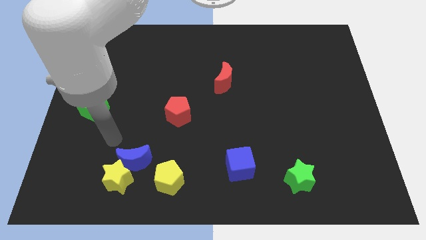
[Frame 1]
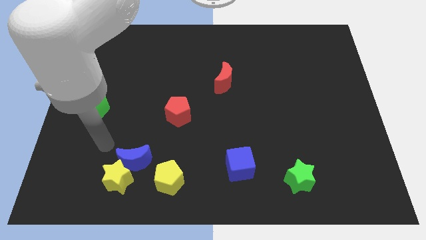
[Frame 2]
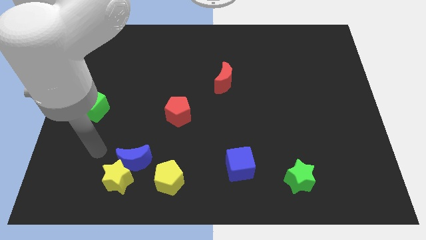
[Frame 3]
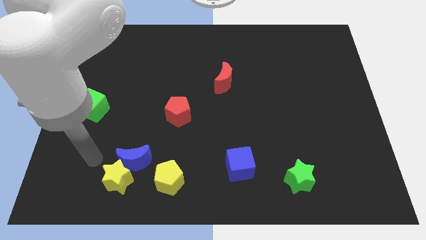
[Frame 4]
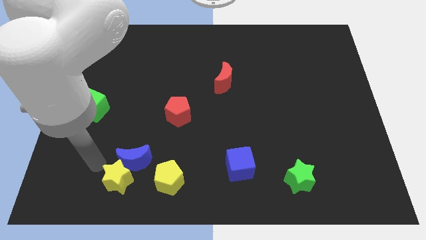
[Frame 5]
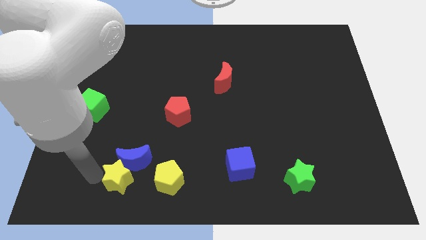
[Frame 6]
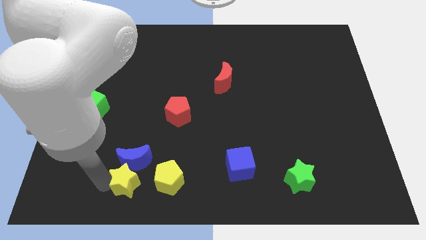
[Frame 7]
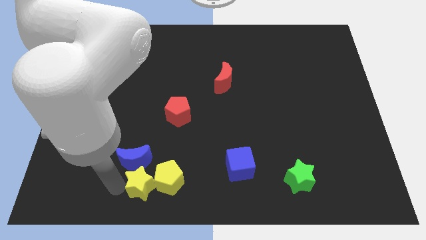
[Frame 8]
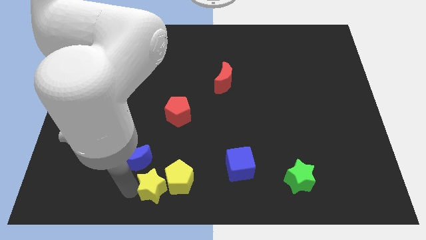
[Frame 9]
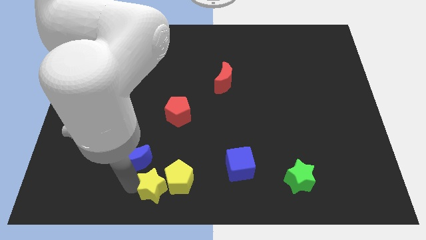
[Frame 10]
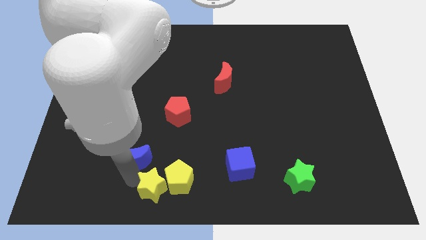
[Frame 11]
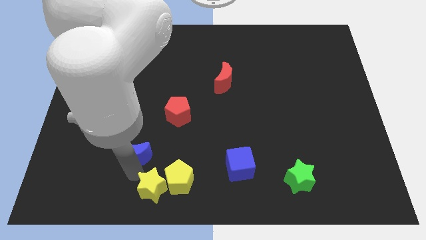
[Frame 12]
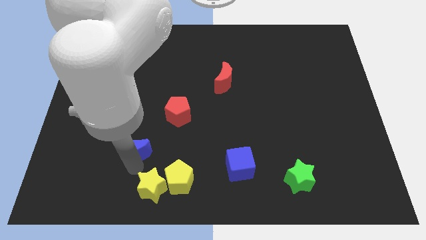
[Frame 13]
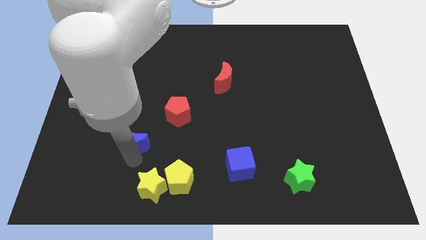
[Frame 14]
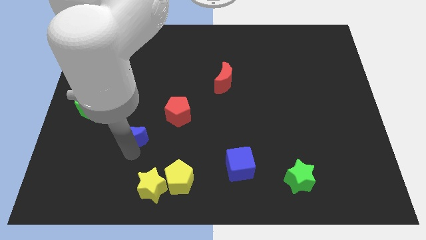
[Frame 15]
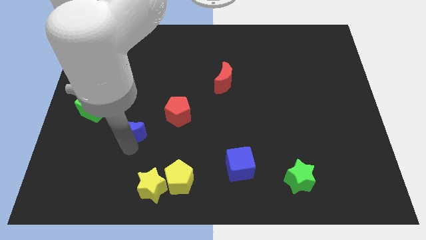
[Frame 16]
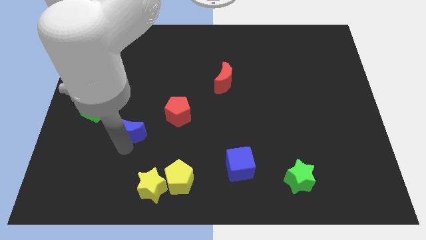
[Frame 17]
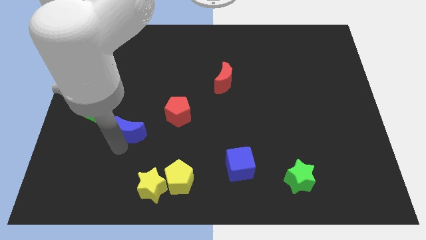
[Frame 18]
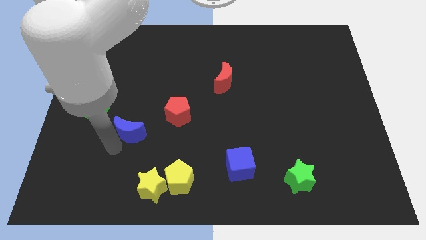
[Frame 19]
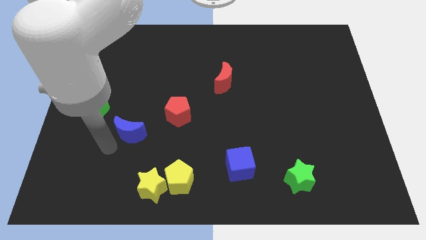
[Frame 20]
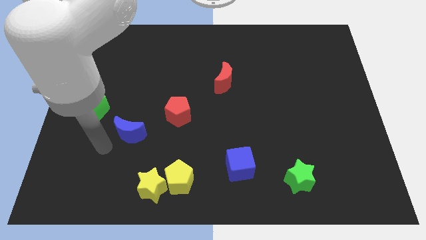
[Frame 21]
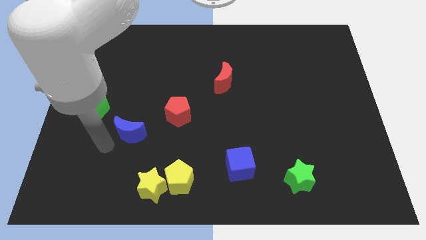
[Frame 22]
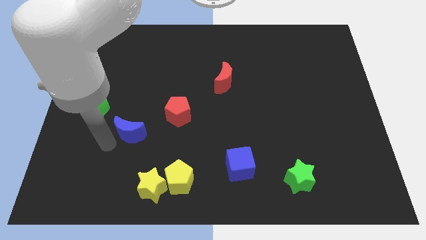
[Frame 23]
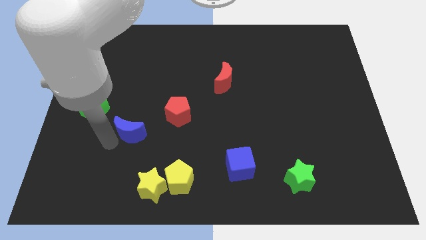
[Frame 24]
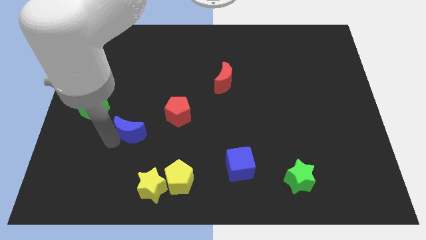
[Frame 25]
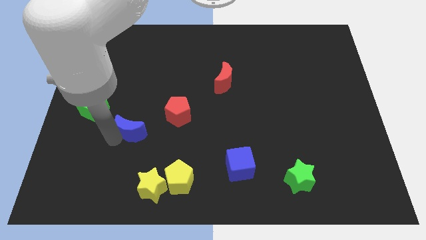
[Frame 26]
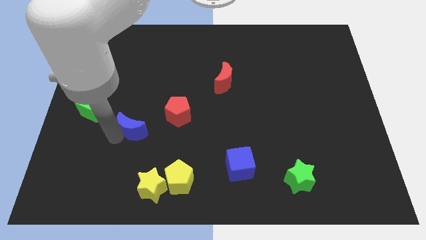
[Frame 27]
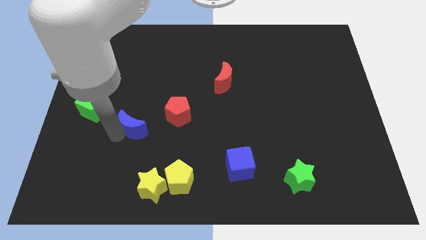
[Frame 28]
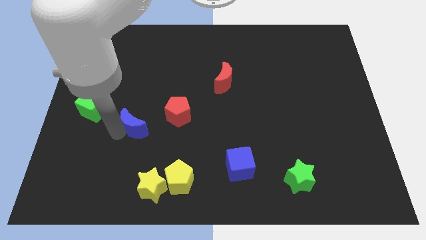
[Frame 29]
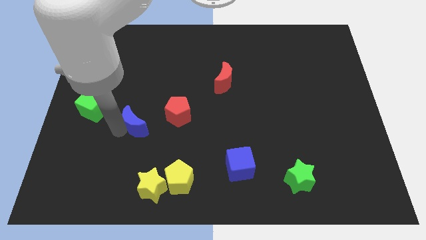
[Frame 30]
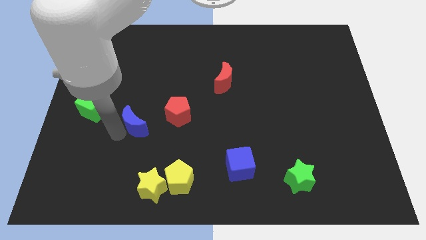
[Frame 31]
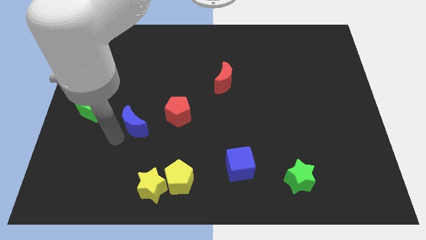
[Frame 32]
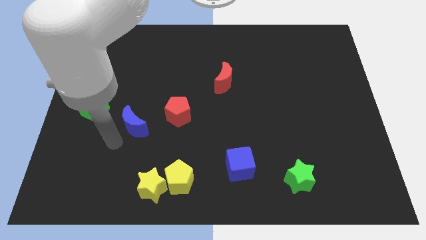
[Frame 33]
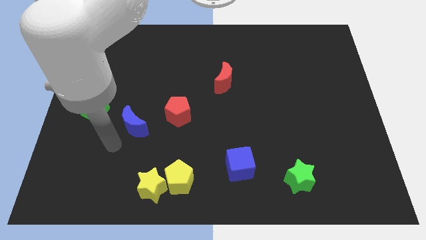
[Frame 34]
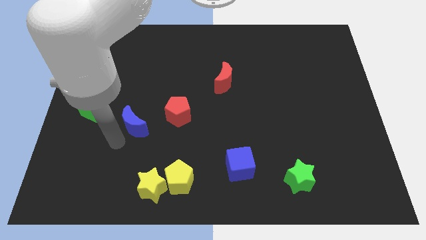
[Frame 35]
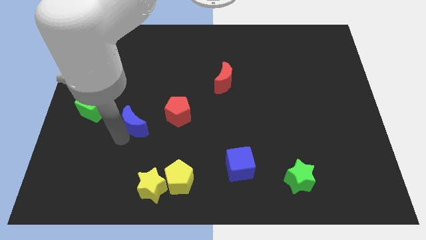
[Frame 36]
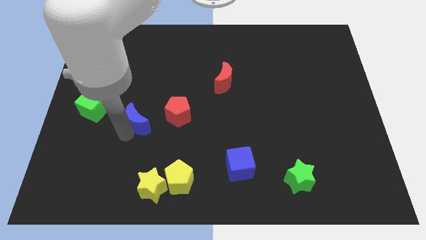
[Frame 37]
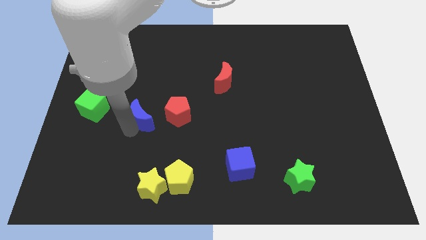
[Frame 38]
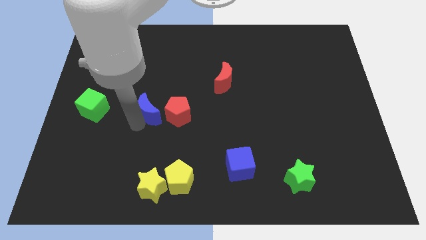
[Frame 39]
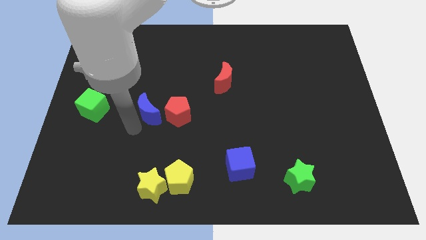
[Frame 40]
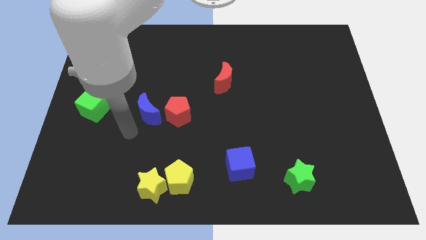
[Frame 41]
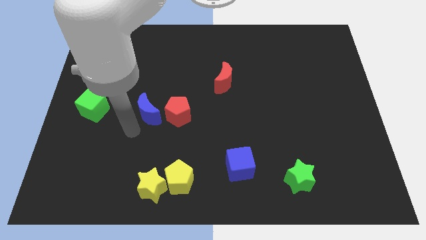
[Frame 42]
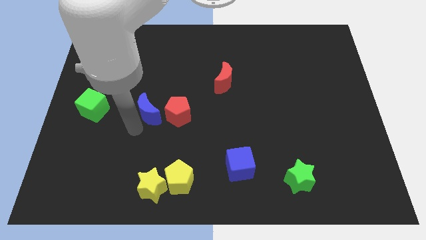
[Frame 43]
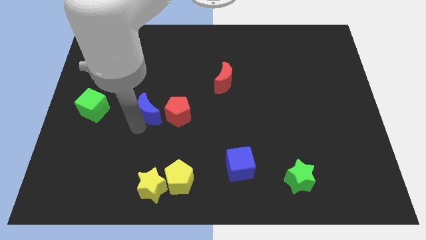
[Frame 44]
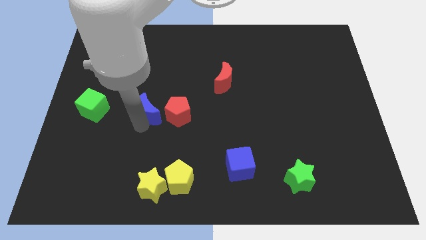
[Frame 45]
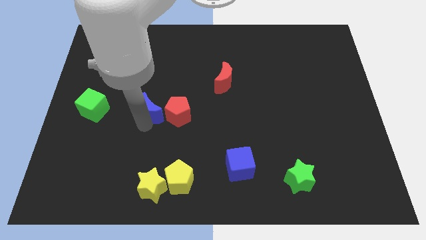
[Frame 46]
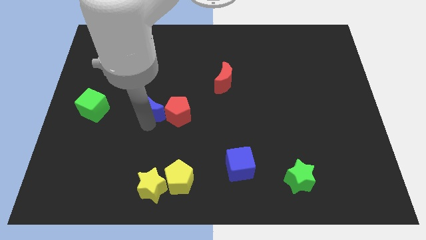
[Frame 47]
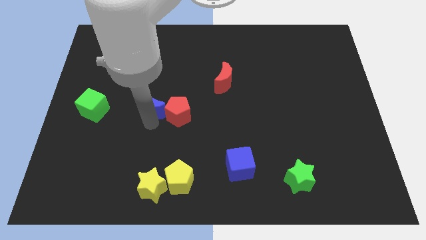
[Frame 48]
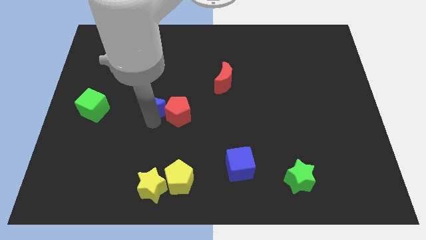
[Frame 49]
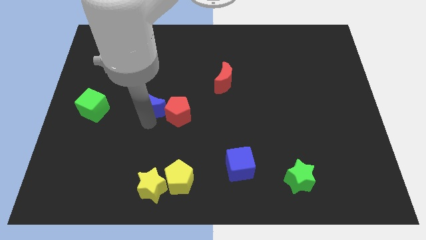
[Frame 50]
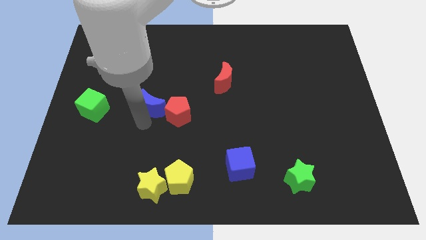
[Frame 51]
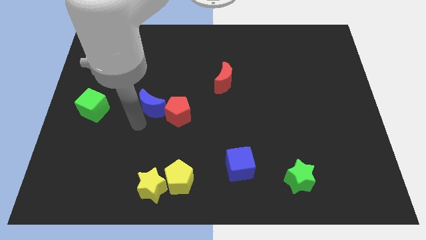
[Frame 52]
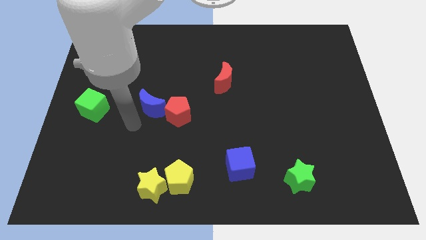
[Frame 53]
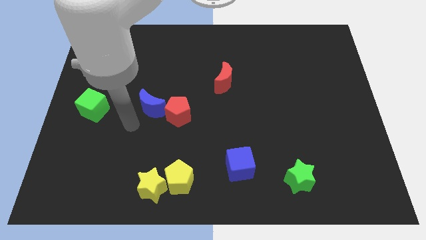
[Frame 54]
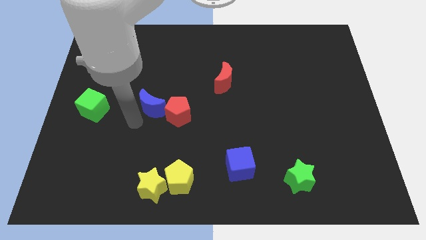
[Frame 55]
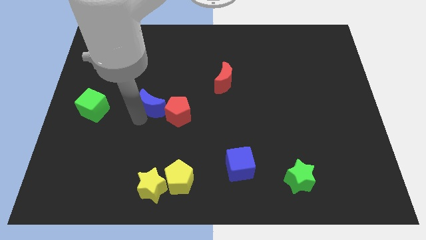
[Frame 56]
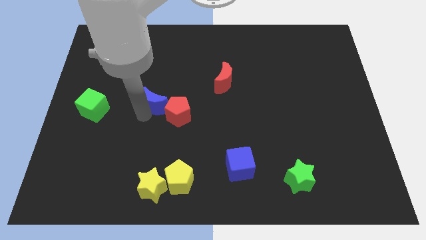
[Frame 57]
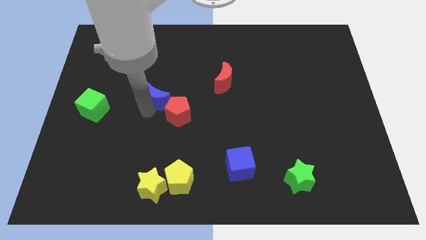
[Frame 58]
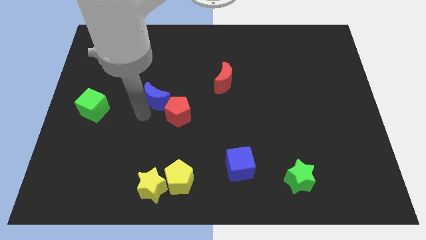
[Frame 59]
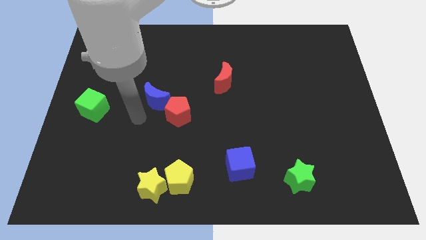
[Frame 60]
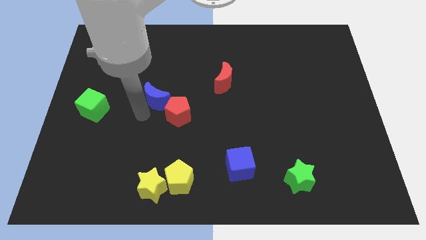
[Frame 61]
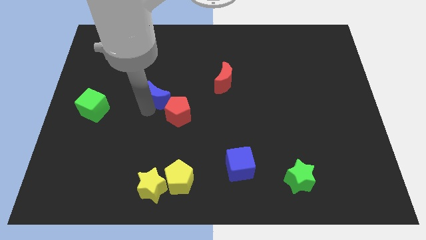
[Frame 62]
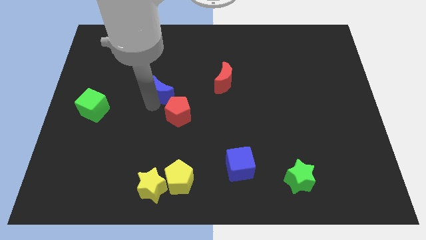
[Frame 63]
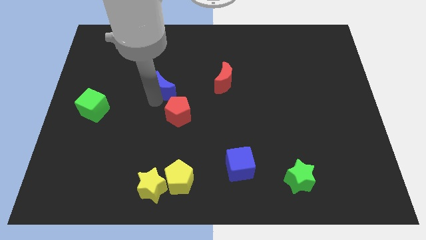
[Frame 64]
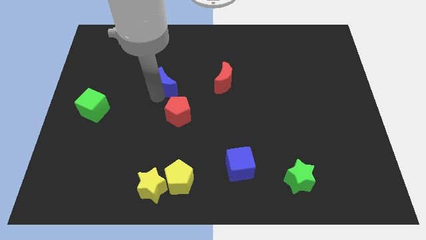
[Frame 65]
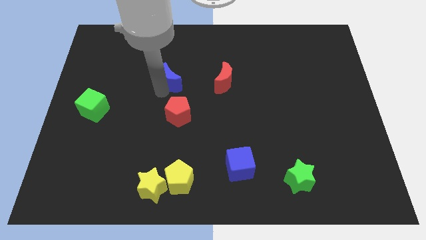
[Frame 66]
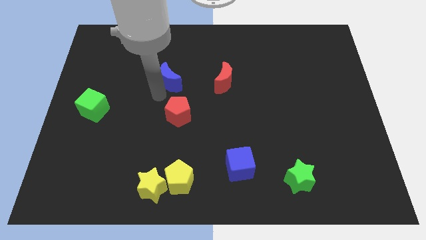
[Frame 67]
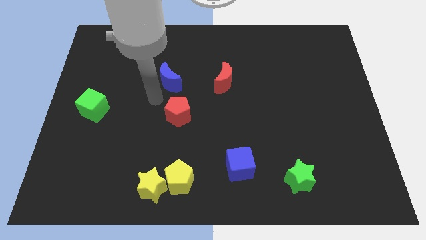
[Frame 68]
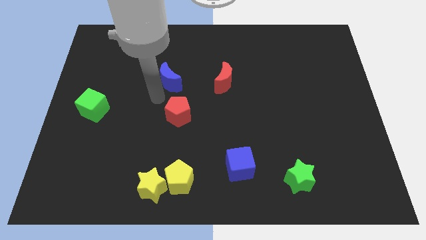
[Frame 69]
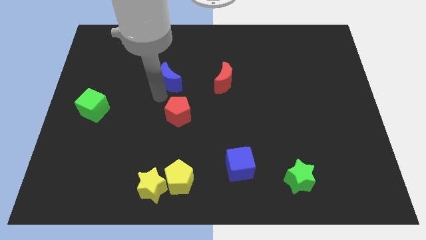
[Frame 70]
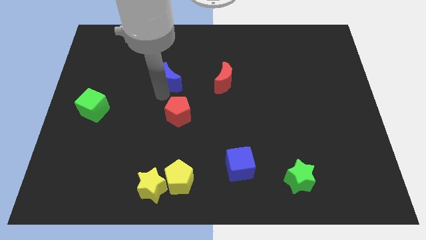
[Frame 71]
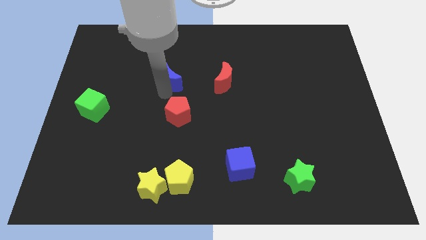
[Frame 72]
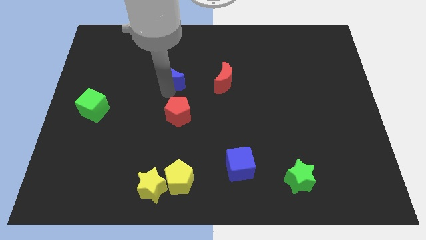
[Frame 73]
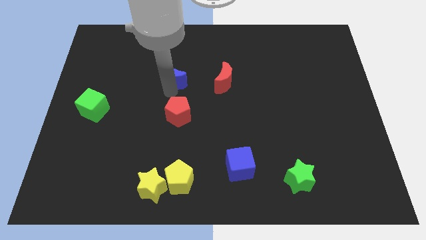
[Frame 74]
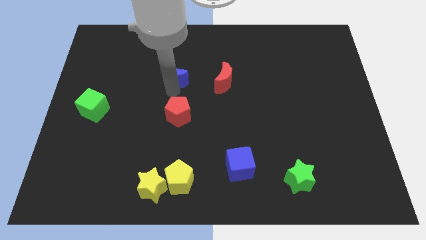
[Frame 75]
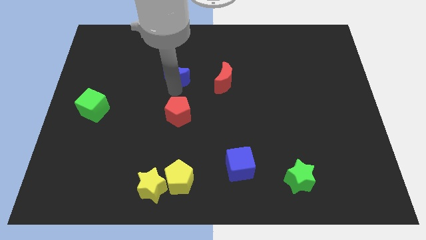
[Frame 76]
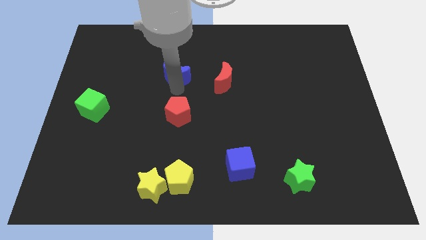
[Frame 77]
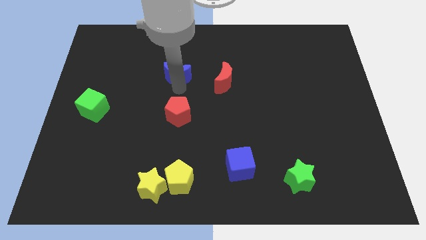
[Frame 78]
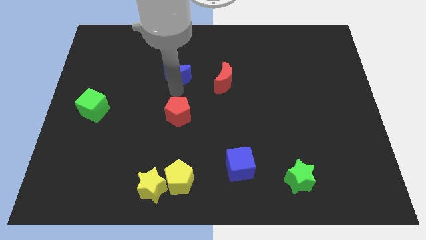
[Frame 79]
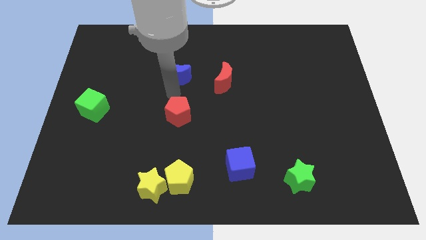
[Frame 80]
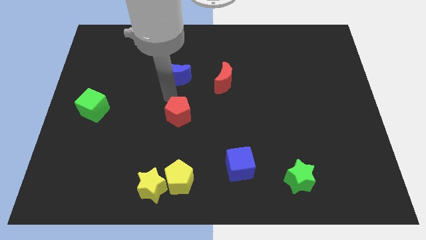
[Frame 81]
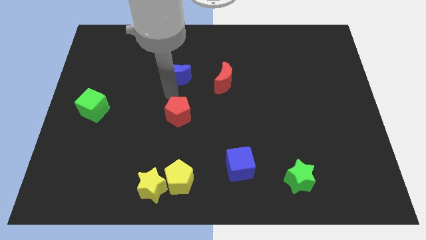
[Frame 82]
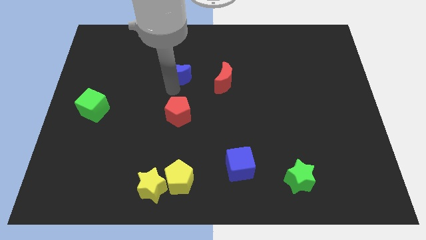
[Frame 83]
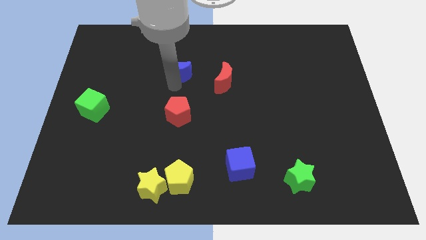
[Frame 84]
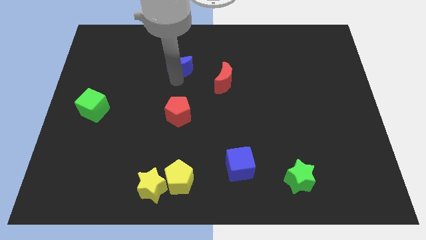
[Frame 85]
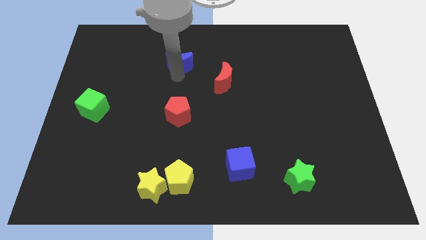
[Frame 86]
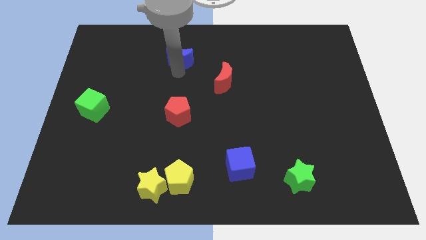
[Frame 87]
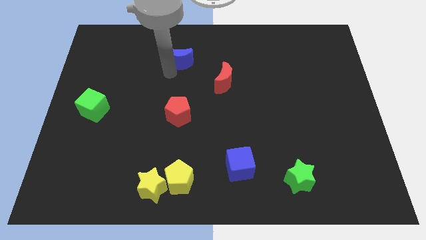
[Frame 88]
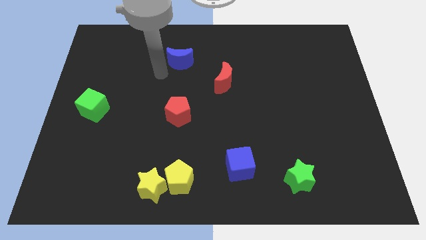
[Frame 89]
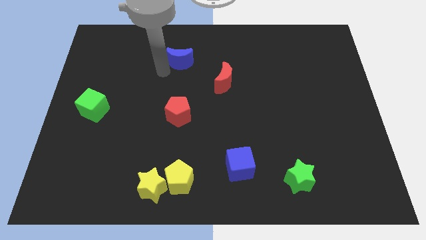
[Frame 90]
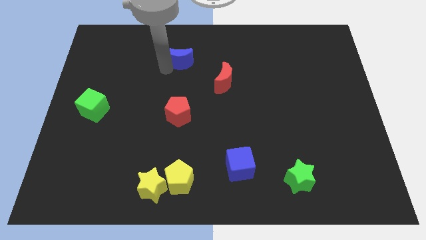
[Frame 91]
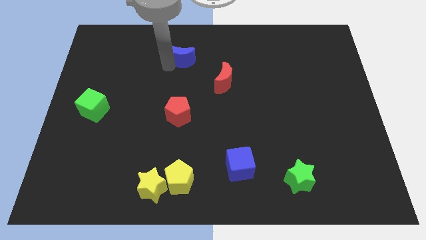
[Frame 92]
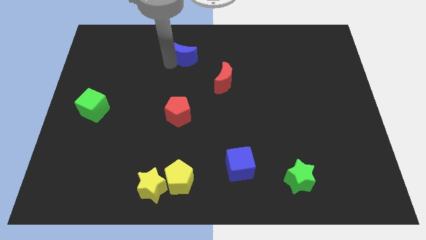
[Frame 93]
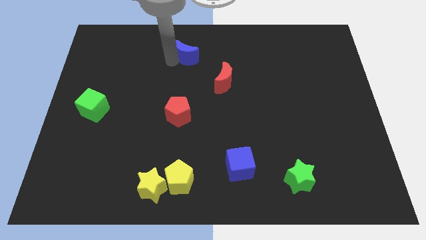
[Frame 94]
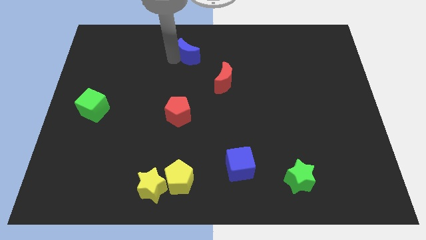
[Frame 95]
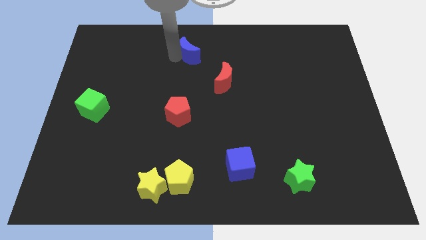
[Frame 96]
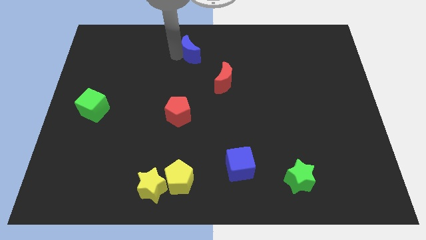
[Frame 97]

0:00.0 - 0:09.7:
put the blue moon to the towards your base
